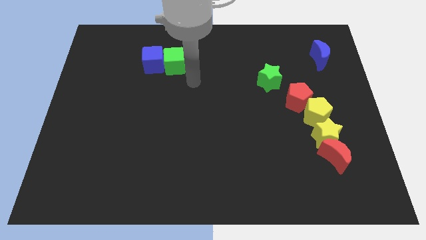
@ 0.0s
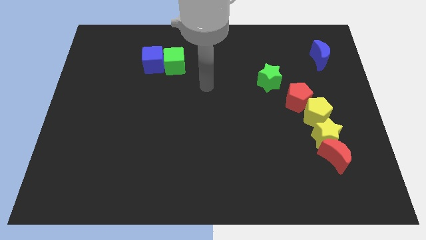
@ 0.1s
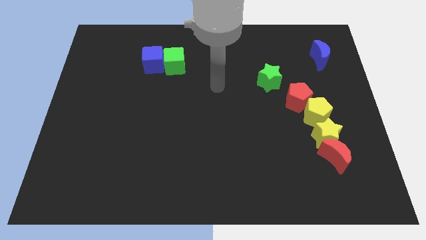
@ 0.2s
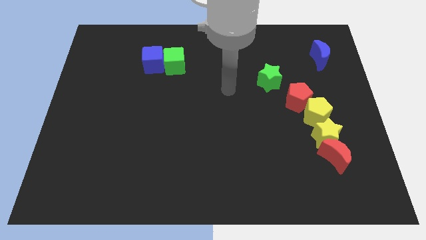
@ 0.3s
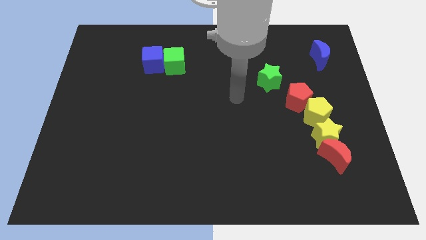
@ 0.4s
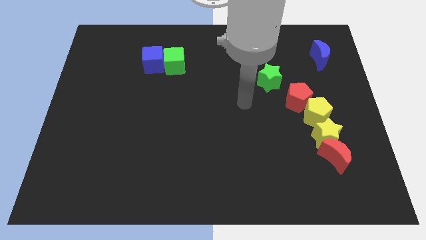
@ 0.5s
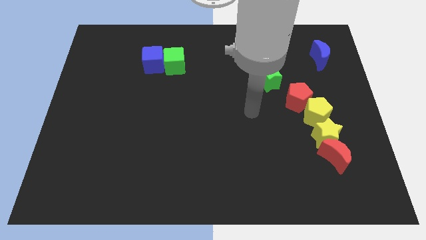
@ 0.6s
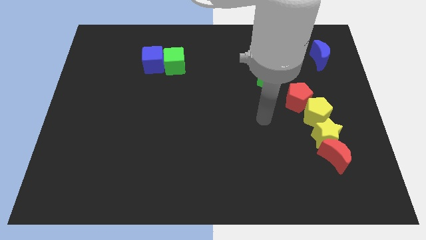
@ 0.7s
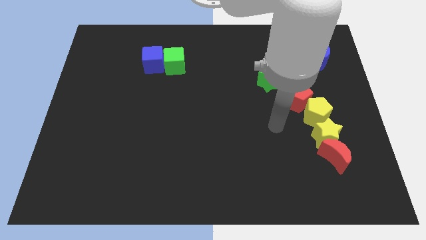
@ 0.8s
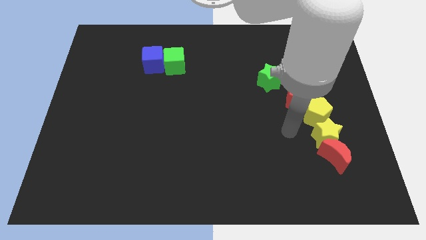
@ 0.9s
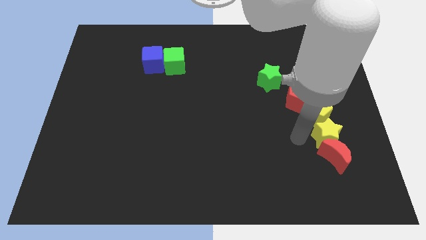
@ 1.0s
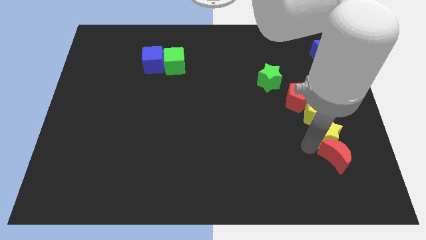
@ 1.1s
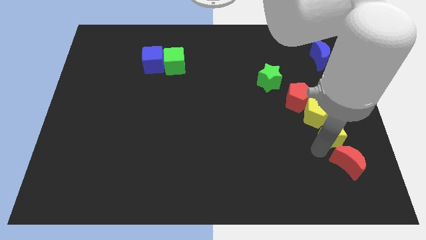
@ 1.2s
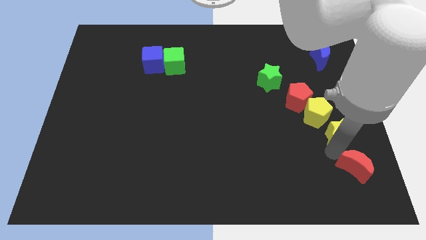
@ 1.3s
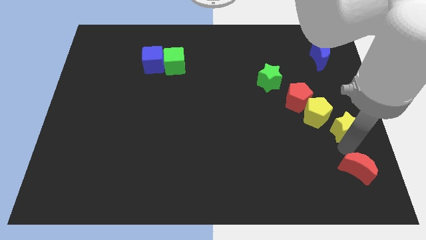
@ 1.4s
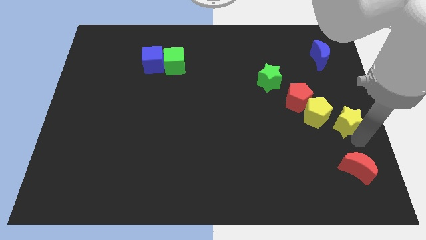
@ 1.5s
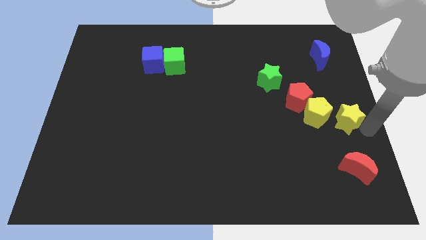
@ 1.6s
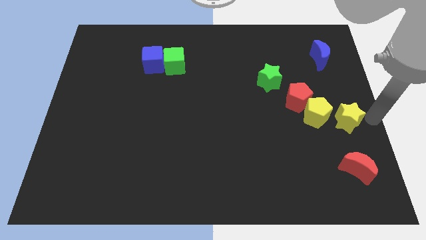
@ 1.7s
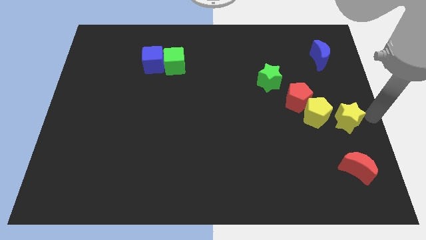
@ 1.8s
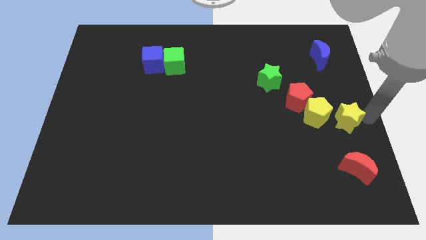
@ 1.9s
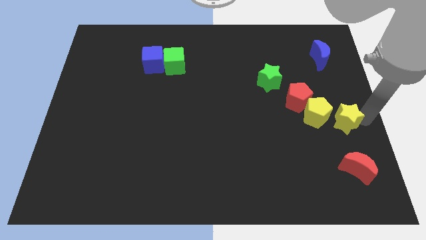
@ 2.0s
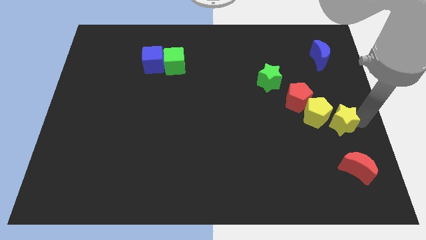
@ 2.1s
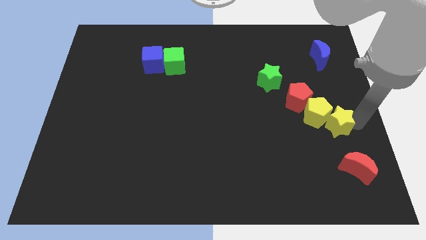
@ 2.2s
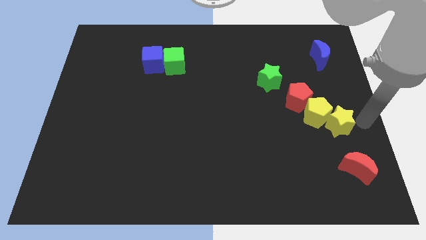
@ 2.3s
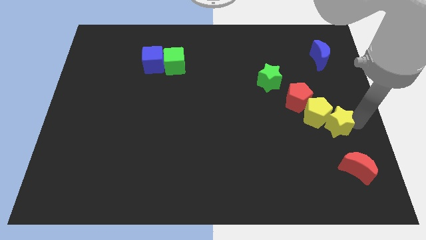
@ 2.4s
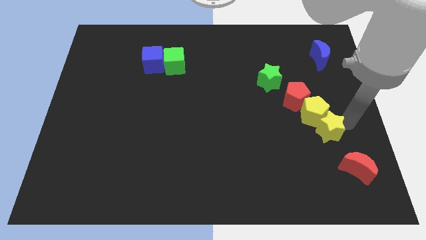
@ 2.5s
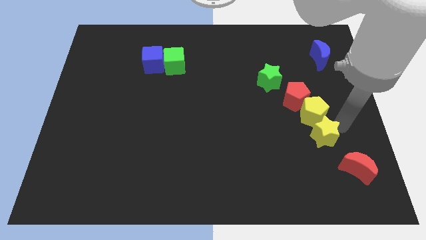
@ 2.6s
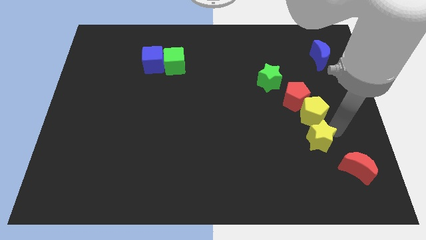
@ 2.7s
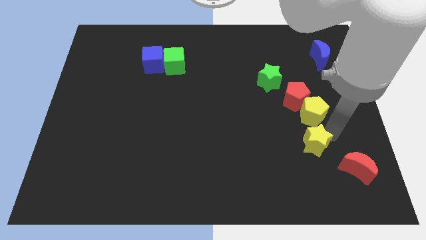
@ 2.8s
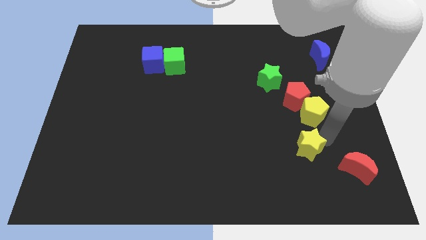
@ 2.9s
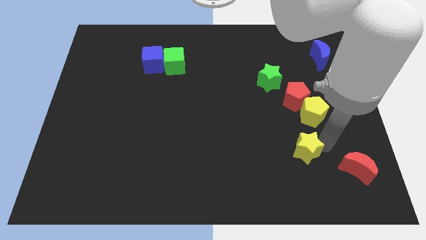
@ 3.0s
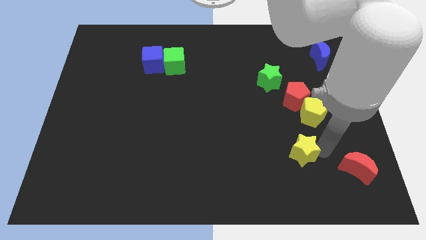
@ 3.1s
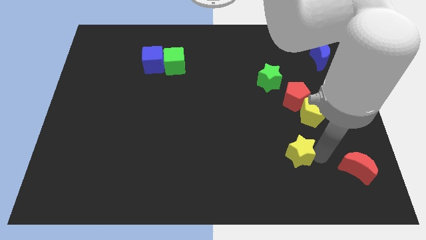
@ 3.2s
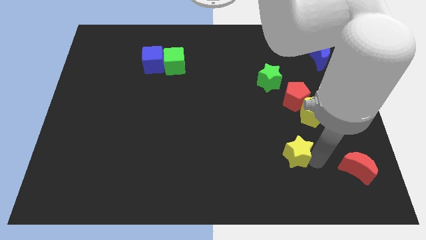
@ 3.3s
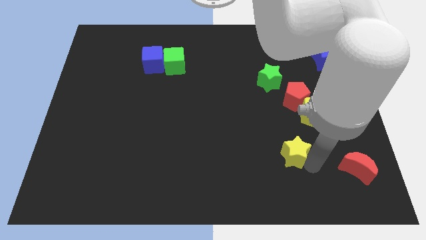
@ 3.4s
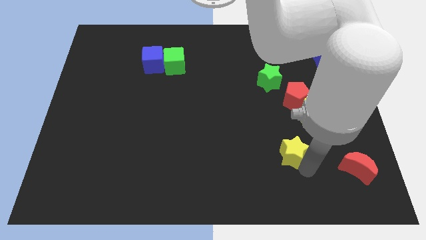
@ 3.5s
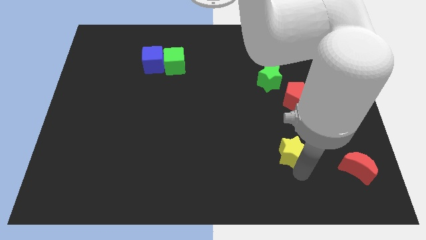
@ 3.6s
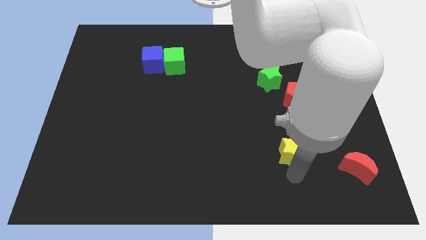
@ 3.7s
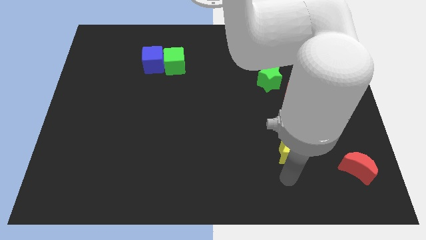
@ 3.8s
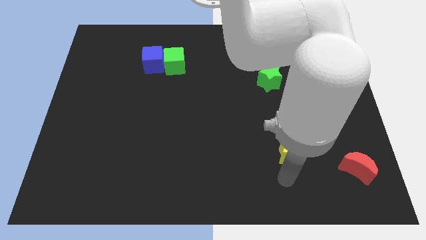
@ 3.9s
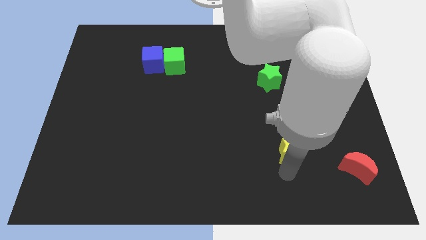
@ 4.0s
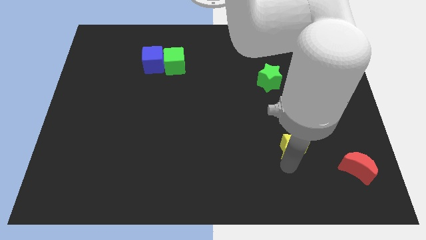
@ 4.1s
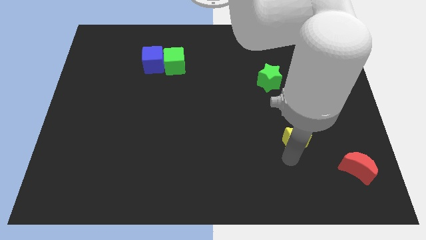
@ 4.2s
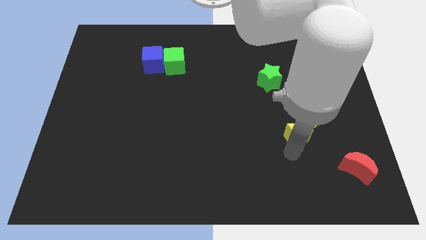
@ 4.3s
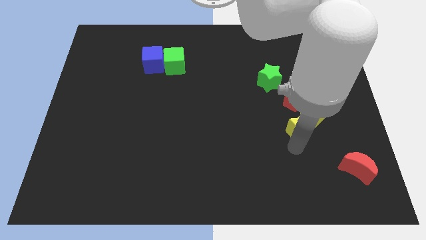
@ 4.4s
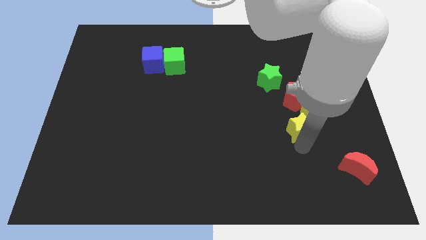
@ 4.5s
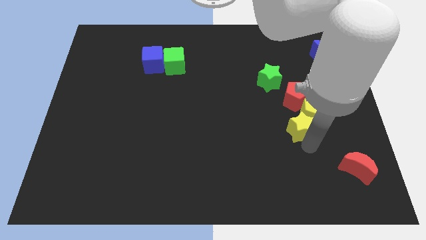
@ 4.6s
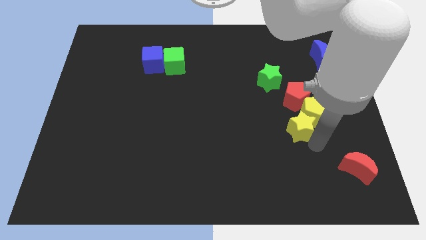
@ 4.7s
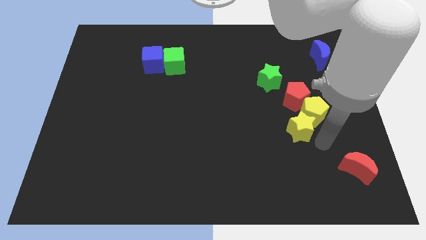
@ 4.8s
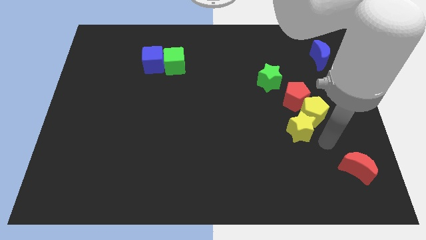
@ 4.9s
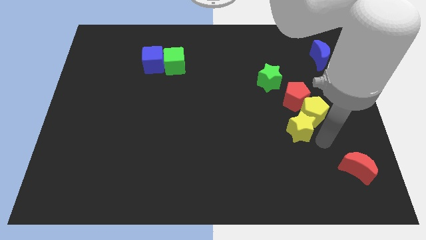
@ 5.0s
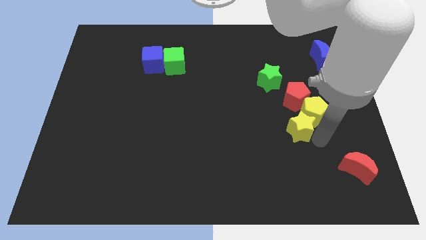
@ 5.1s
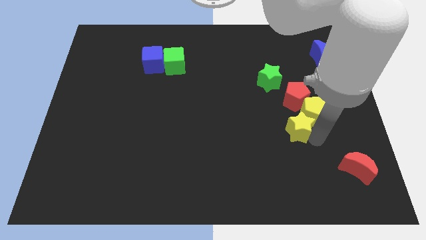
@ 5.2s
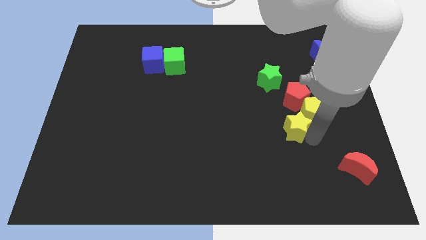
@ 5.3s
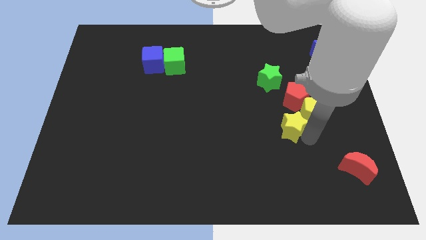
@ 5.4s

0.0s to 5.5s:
push the yellow star diagonally down and to the left of the red pentagon

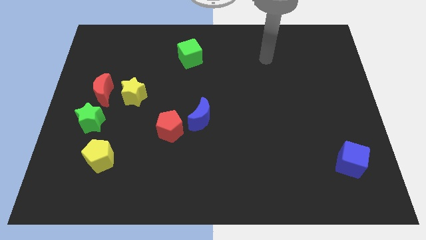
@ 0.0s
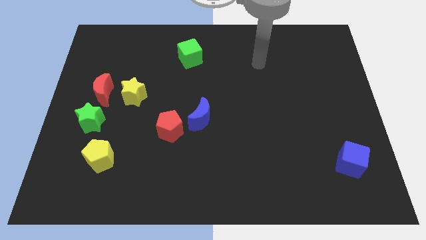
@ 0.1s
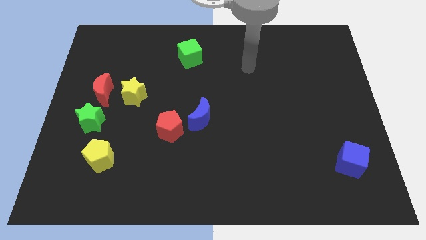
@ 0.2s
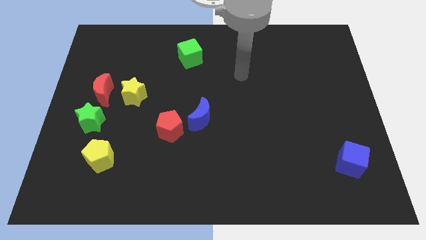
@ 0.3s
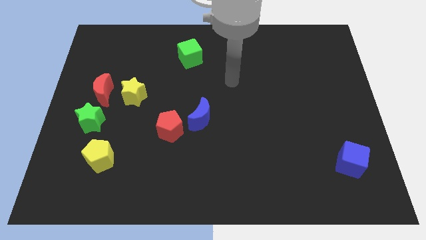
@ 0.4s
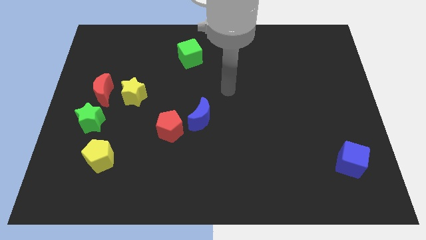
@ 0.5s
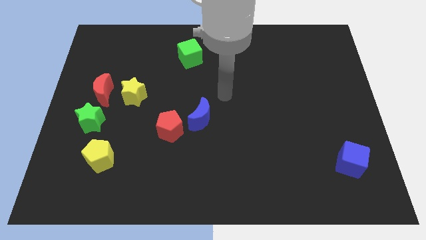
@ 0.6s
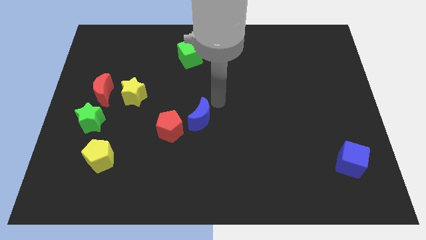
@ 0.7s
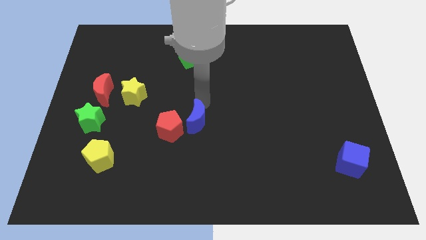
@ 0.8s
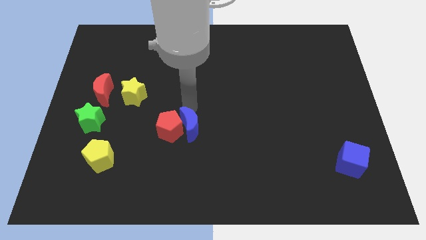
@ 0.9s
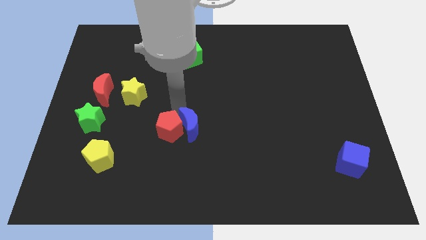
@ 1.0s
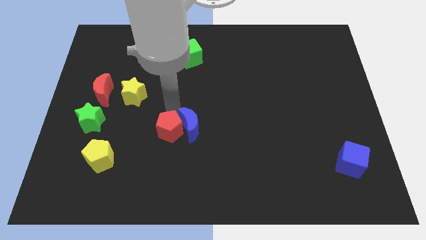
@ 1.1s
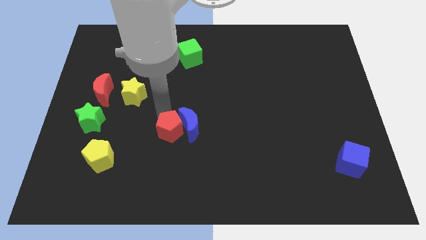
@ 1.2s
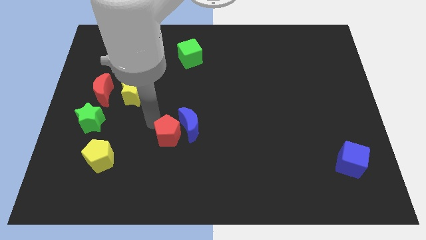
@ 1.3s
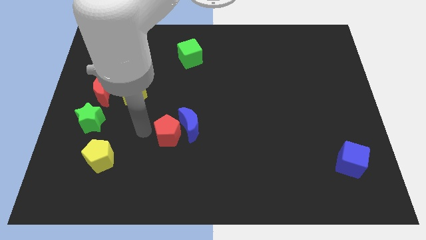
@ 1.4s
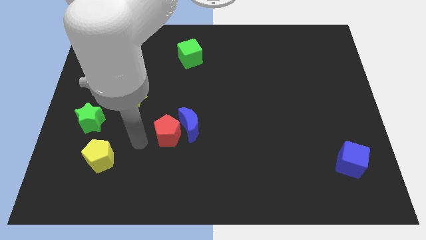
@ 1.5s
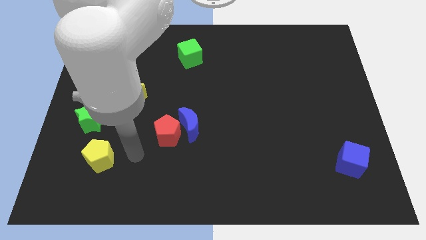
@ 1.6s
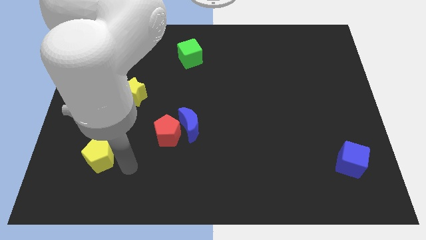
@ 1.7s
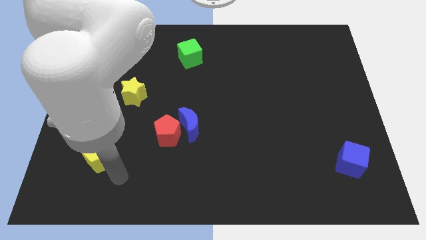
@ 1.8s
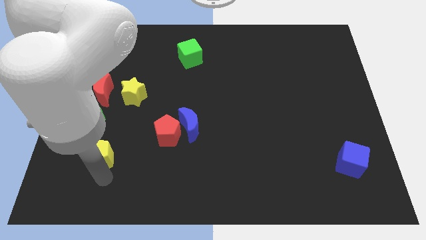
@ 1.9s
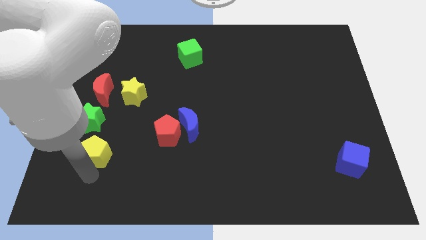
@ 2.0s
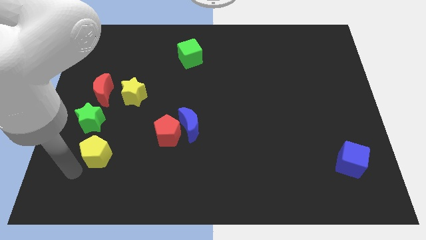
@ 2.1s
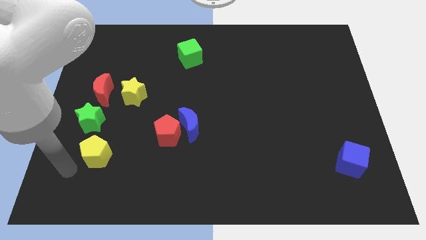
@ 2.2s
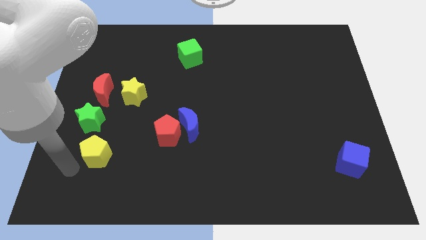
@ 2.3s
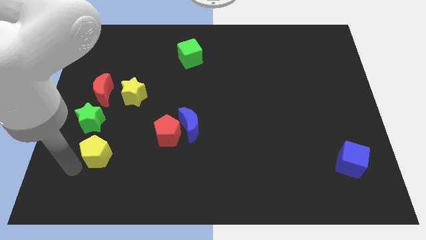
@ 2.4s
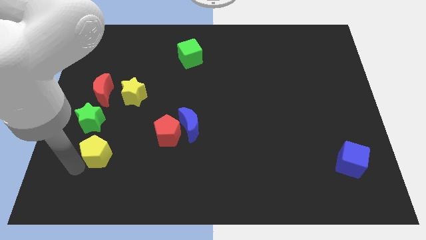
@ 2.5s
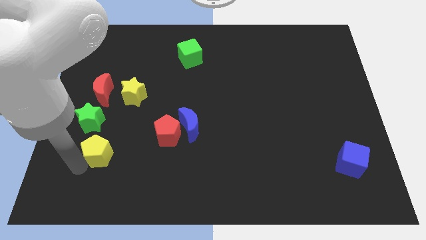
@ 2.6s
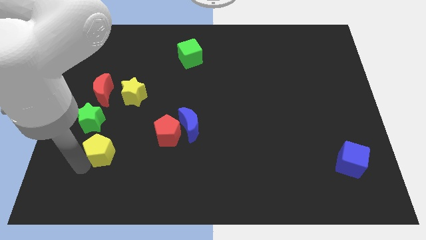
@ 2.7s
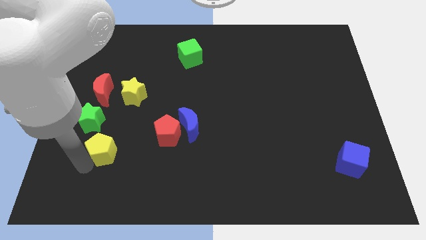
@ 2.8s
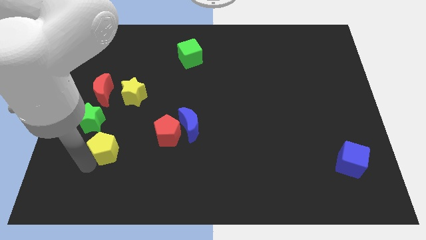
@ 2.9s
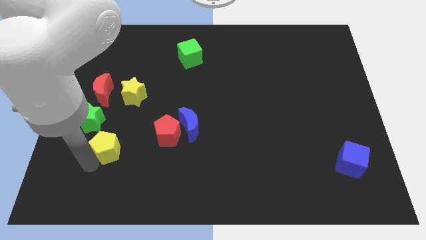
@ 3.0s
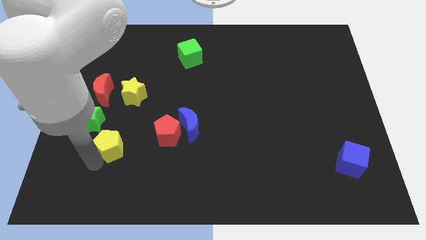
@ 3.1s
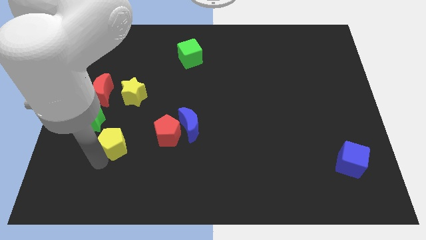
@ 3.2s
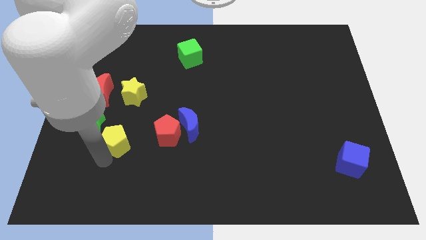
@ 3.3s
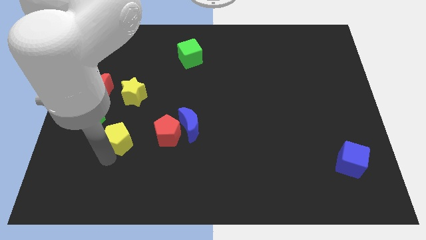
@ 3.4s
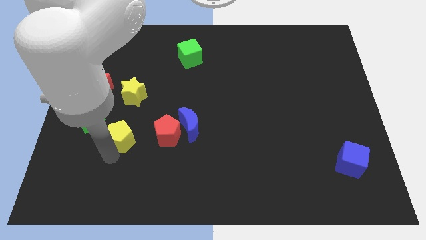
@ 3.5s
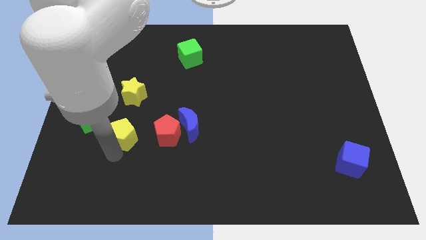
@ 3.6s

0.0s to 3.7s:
put the yellow pentagon to the right of the green star
